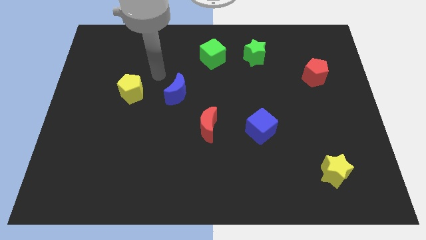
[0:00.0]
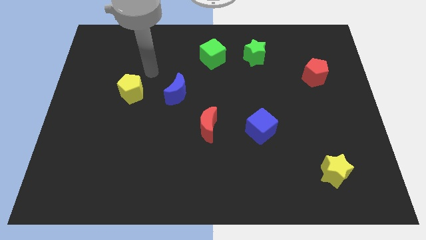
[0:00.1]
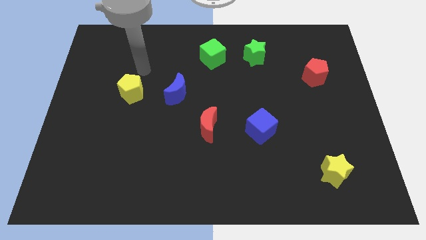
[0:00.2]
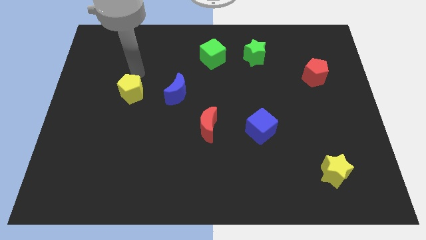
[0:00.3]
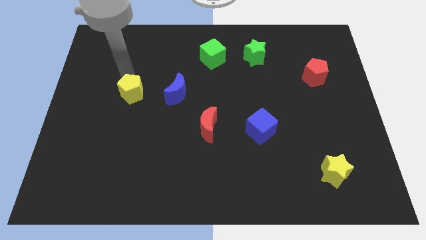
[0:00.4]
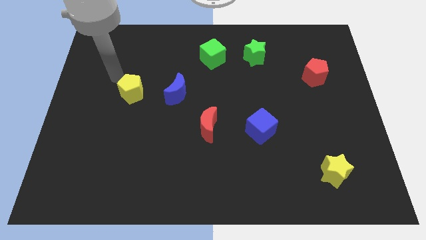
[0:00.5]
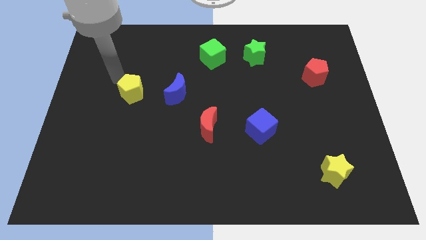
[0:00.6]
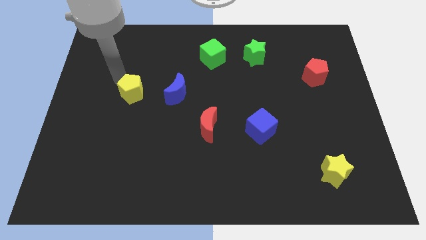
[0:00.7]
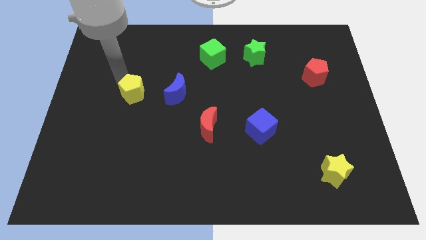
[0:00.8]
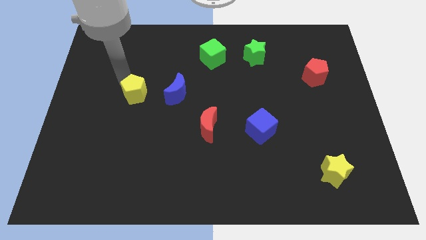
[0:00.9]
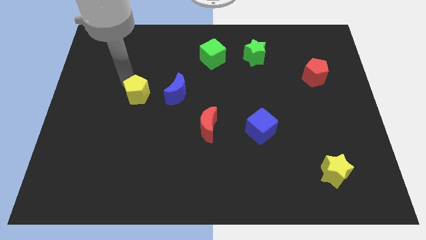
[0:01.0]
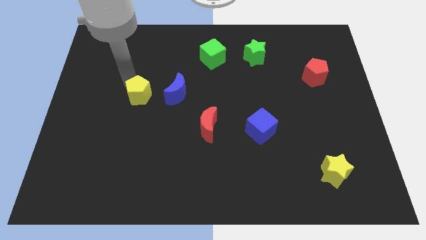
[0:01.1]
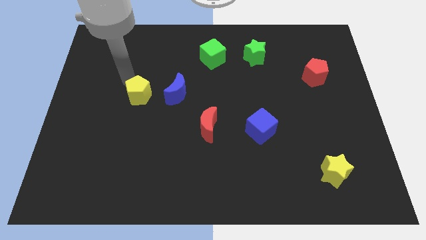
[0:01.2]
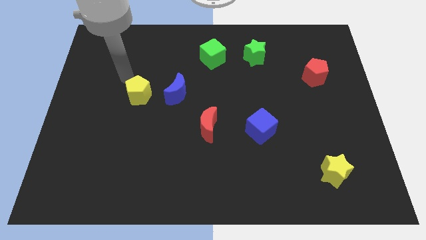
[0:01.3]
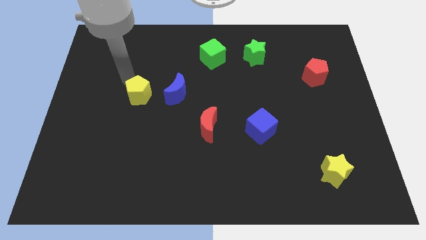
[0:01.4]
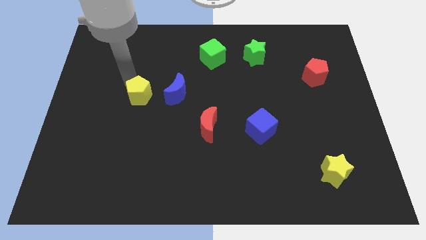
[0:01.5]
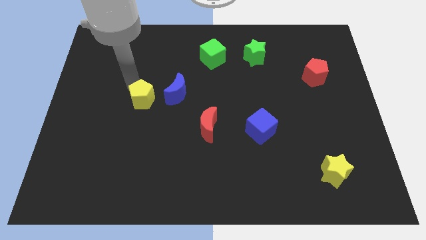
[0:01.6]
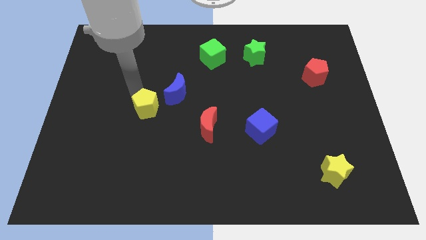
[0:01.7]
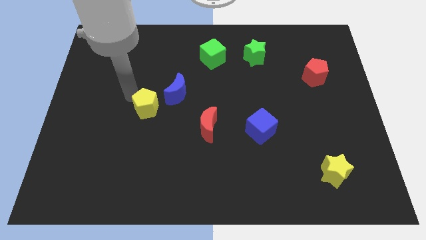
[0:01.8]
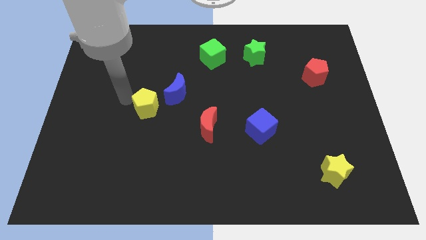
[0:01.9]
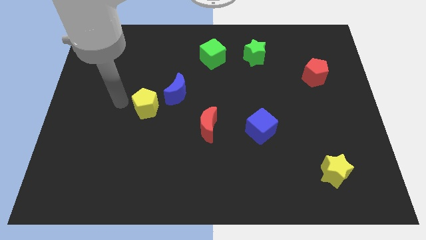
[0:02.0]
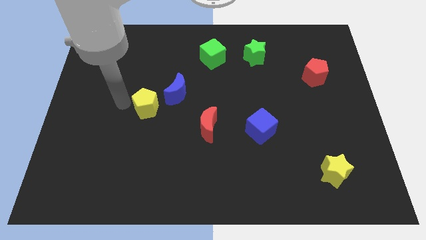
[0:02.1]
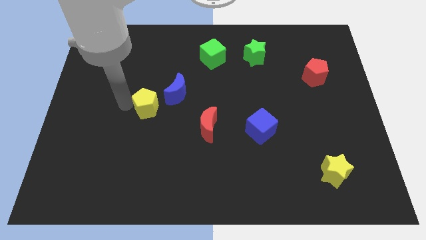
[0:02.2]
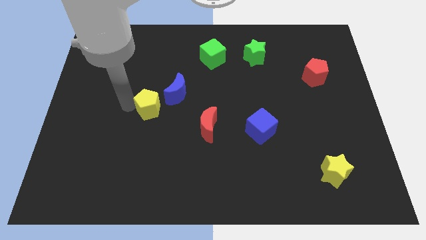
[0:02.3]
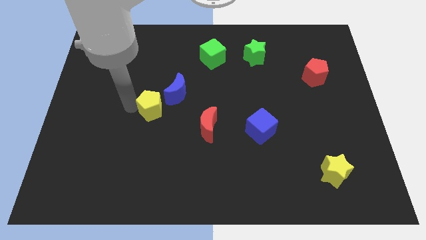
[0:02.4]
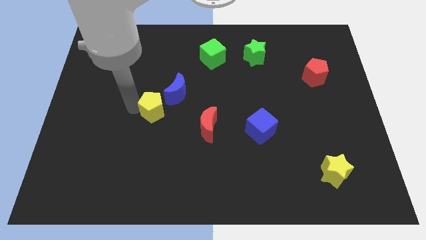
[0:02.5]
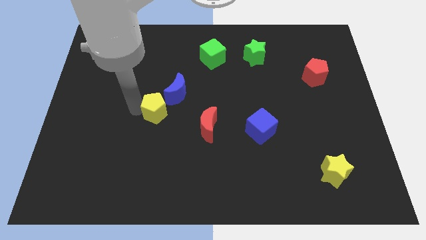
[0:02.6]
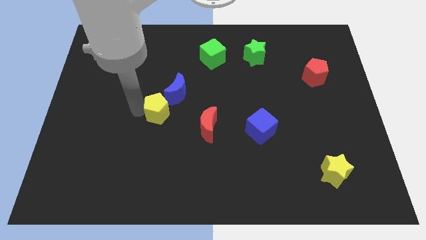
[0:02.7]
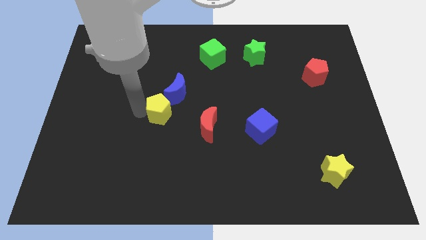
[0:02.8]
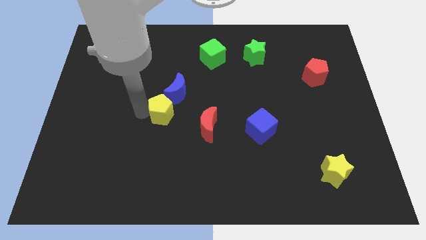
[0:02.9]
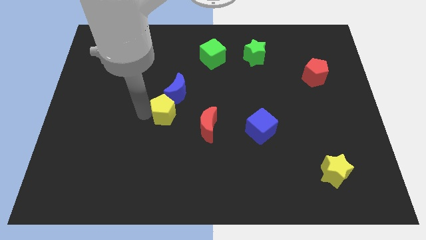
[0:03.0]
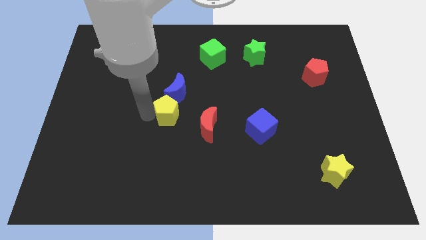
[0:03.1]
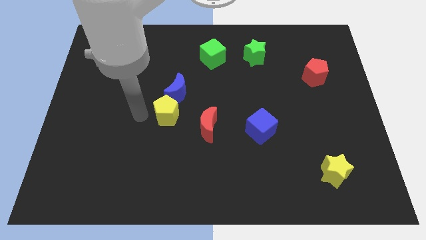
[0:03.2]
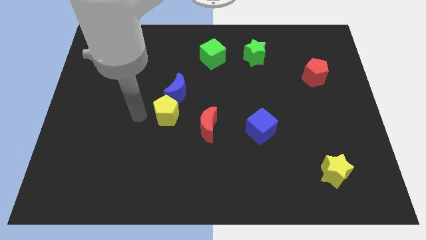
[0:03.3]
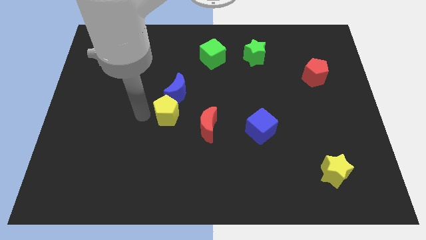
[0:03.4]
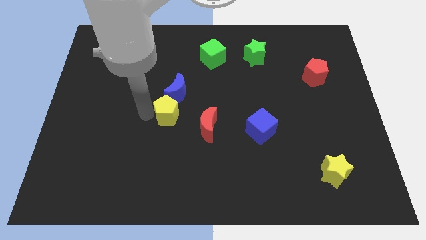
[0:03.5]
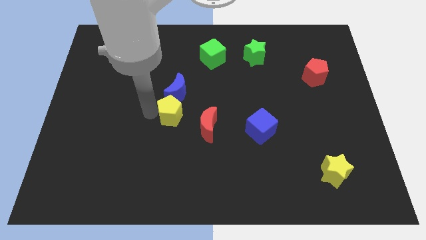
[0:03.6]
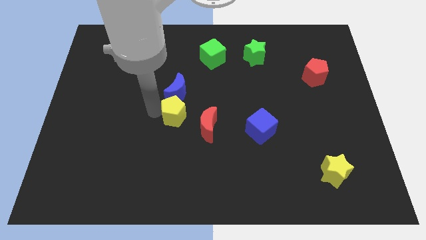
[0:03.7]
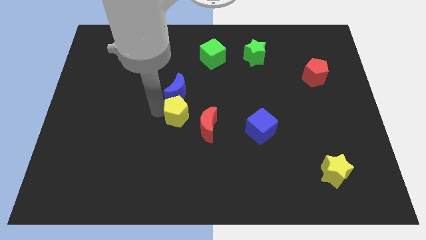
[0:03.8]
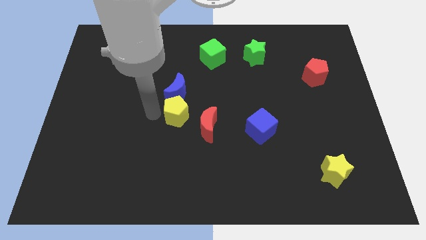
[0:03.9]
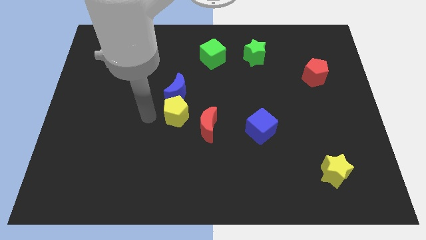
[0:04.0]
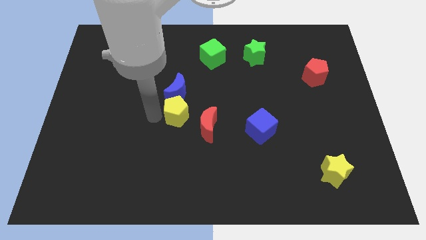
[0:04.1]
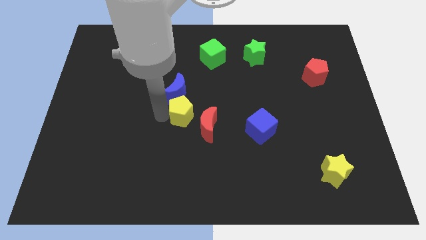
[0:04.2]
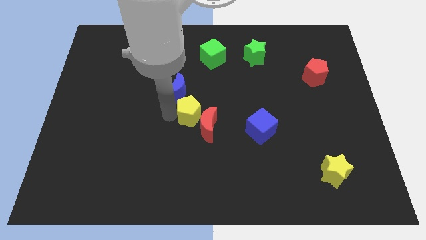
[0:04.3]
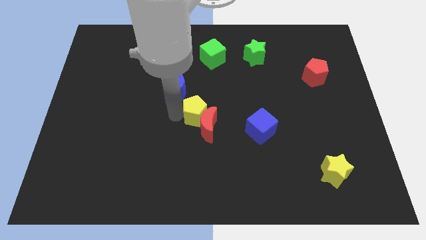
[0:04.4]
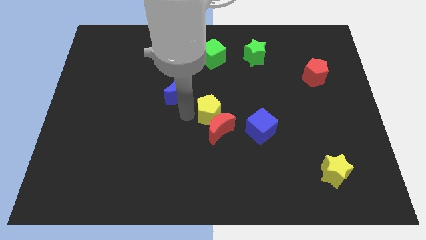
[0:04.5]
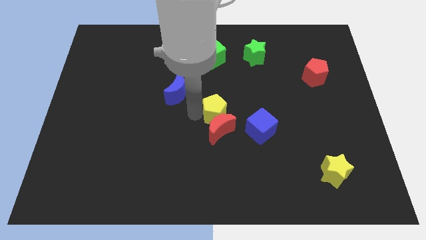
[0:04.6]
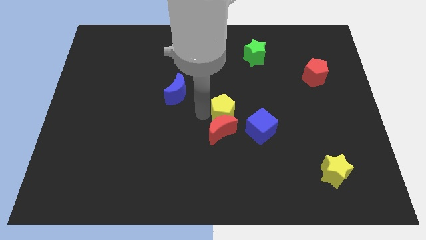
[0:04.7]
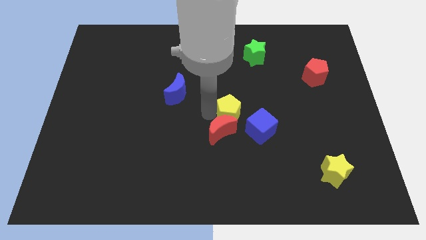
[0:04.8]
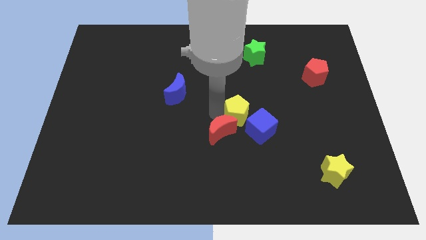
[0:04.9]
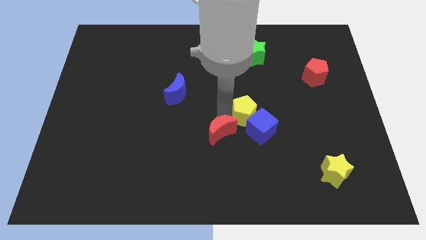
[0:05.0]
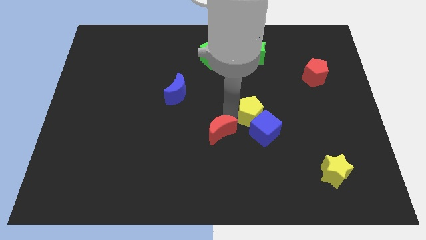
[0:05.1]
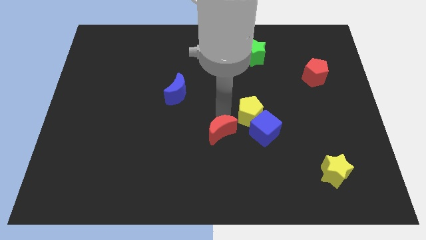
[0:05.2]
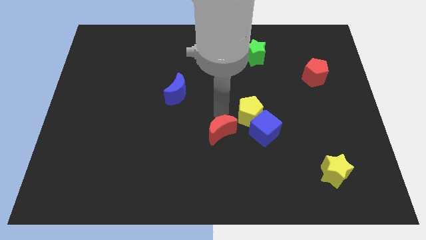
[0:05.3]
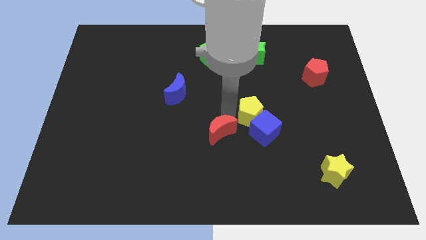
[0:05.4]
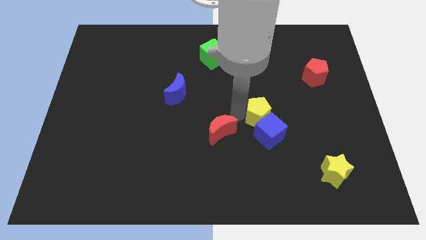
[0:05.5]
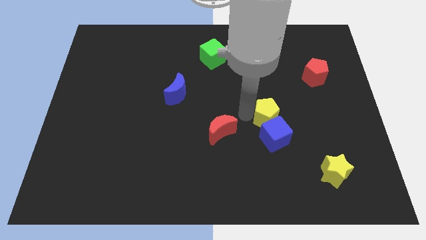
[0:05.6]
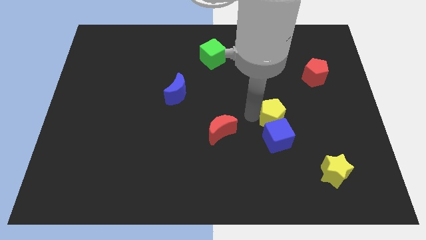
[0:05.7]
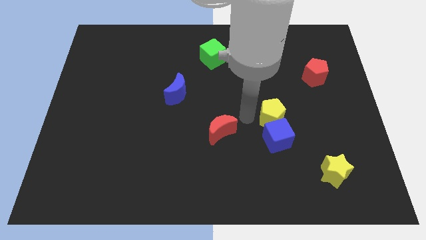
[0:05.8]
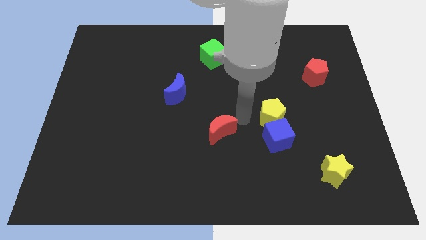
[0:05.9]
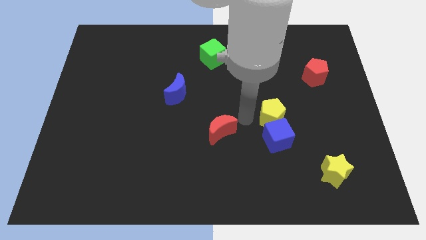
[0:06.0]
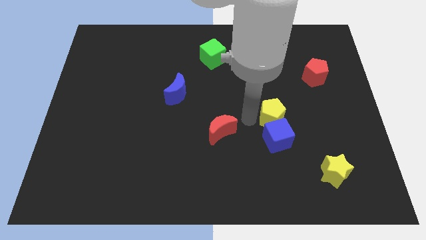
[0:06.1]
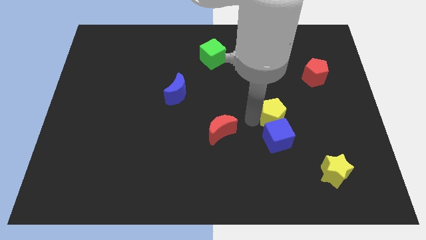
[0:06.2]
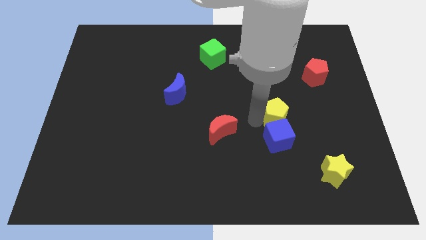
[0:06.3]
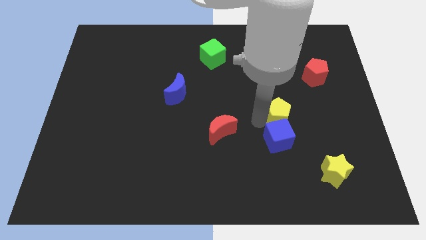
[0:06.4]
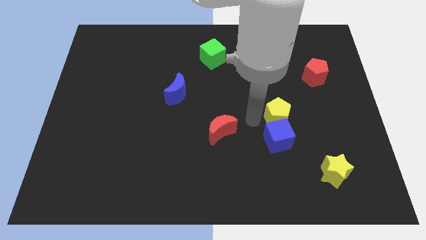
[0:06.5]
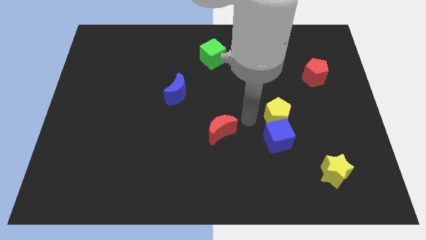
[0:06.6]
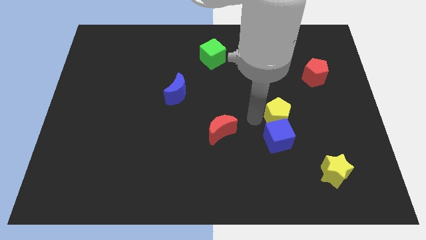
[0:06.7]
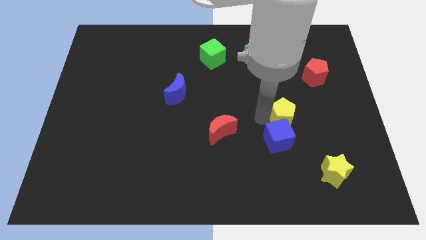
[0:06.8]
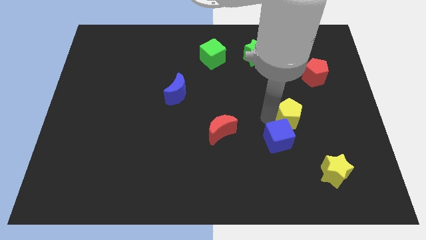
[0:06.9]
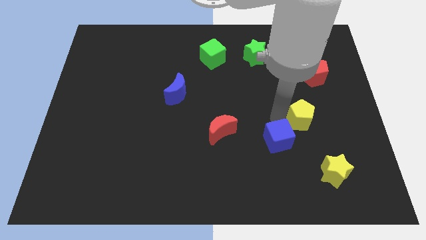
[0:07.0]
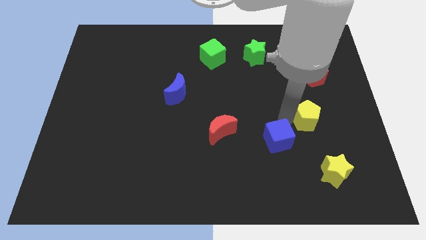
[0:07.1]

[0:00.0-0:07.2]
move the yellow pentagon to the bottom side of the red pentagon

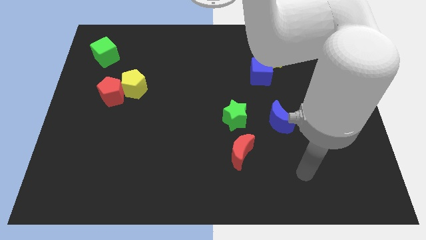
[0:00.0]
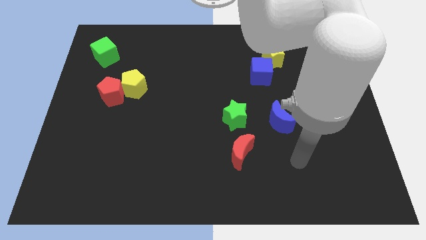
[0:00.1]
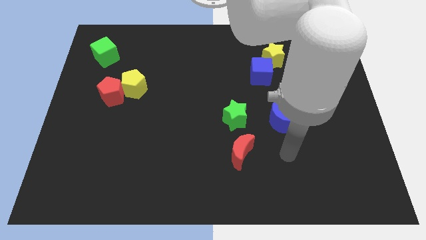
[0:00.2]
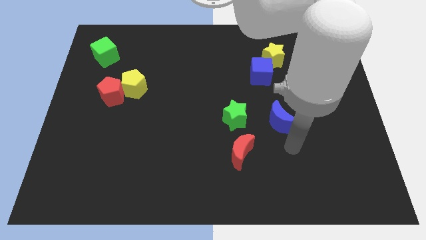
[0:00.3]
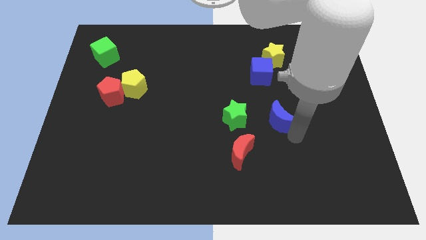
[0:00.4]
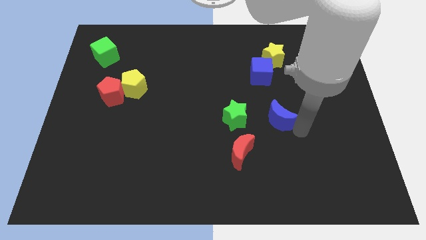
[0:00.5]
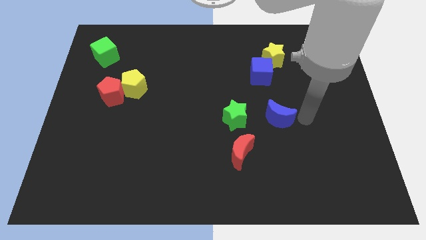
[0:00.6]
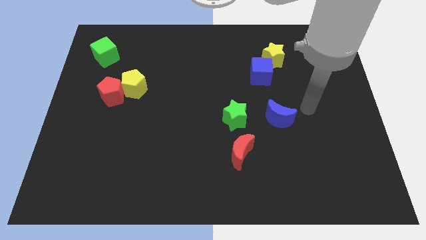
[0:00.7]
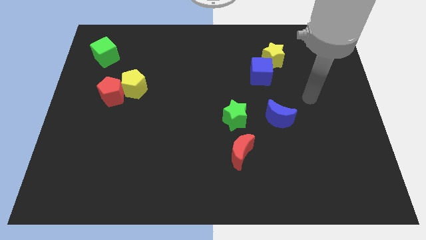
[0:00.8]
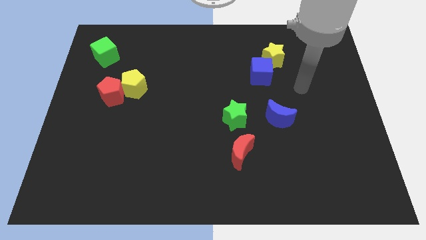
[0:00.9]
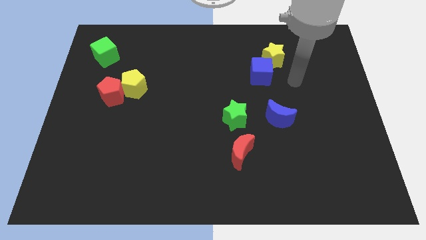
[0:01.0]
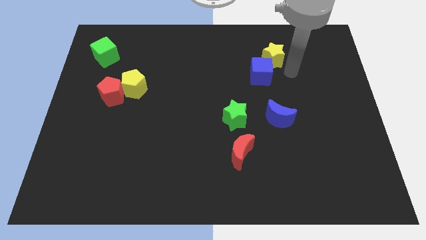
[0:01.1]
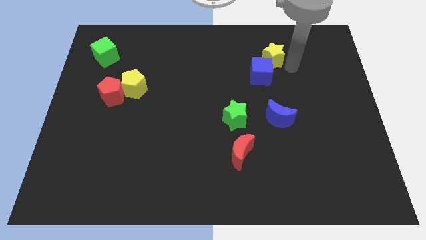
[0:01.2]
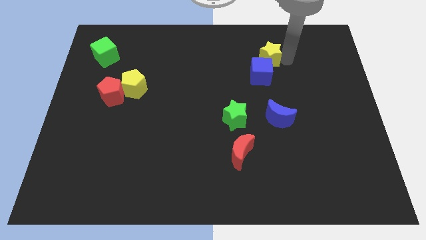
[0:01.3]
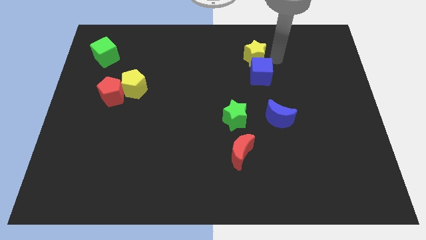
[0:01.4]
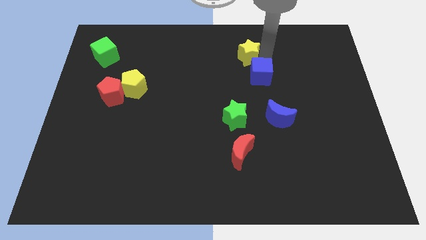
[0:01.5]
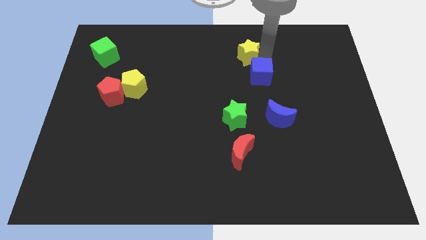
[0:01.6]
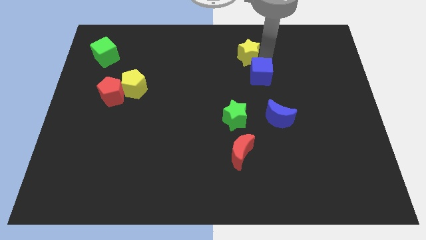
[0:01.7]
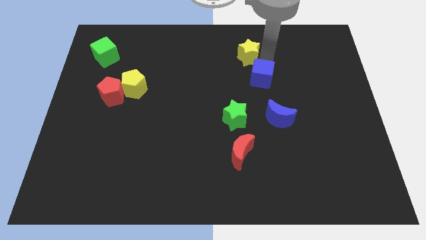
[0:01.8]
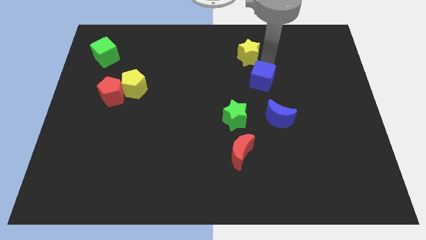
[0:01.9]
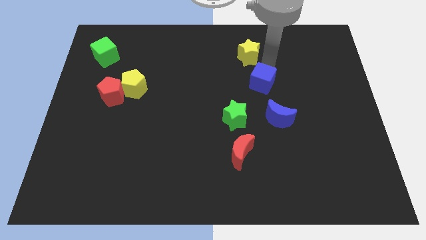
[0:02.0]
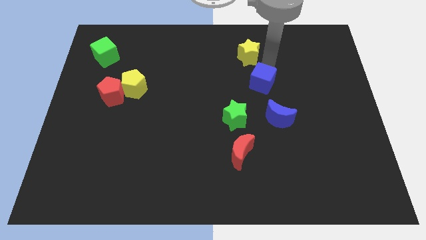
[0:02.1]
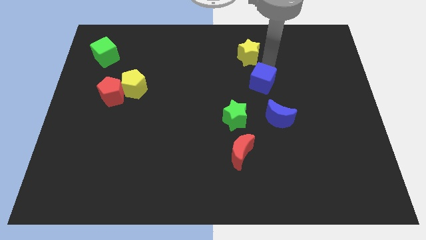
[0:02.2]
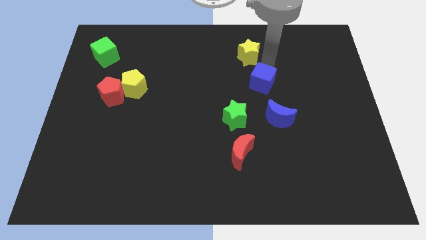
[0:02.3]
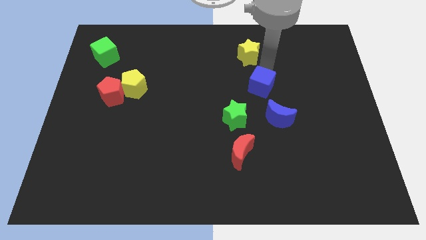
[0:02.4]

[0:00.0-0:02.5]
push the blue cube to the top right of the green star
